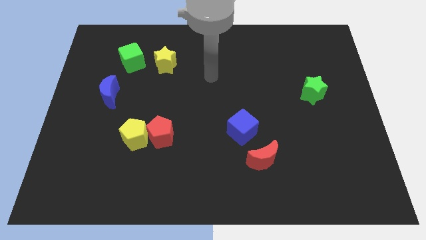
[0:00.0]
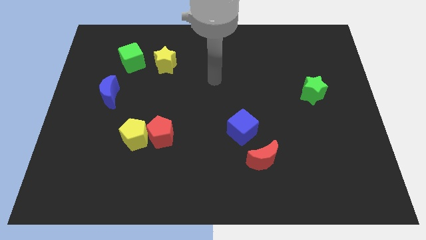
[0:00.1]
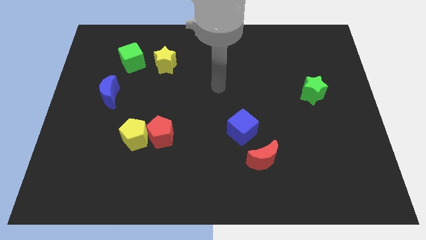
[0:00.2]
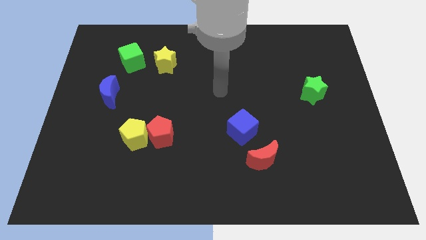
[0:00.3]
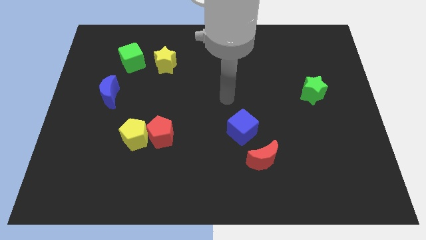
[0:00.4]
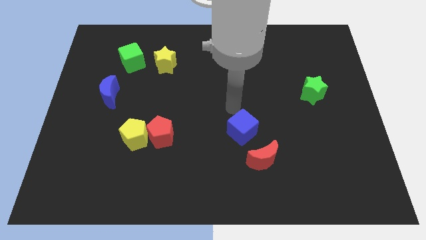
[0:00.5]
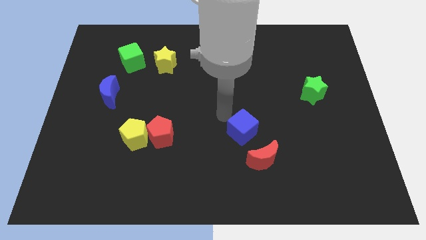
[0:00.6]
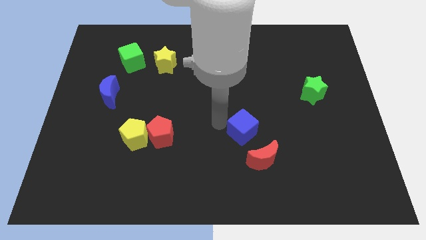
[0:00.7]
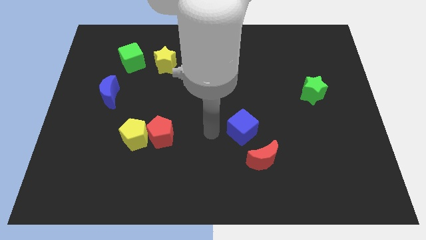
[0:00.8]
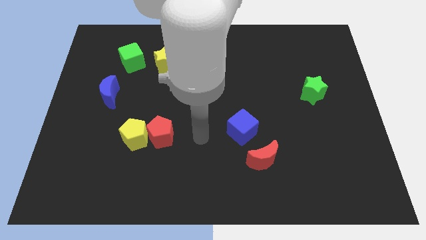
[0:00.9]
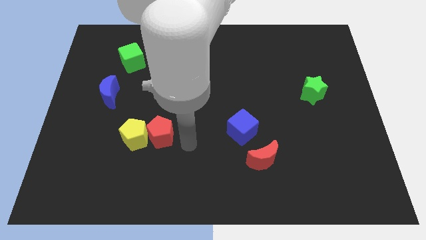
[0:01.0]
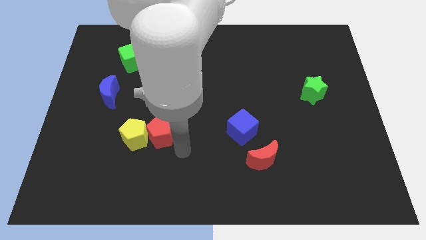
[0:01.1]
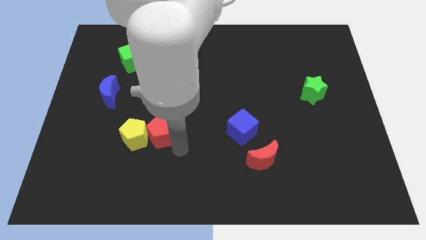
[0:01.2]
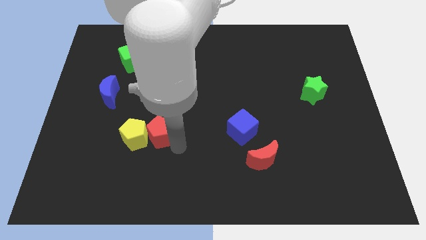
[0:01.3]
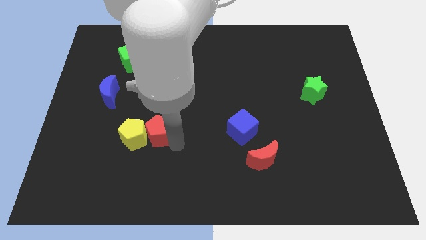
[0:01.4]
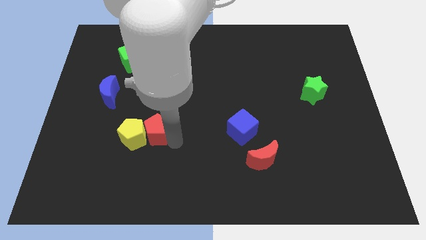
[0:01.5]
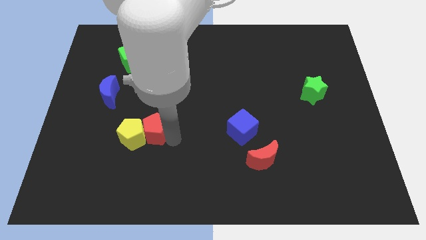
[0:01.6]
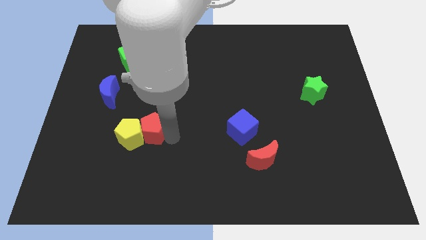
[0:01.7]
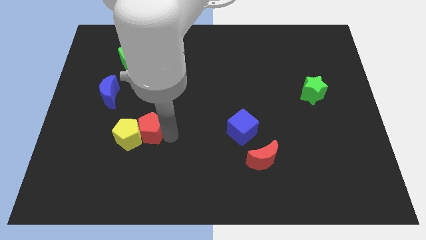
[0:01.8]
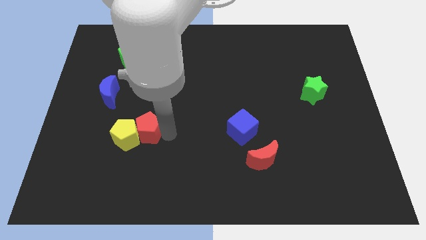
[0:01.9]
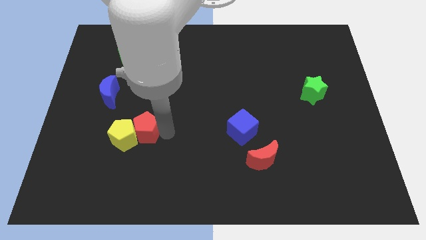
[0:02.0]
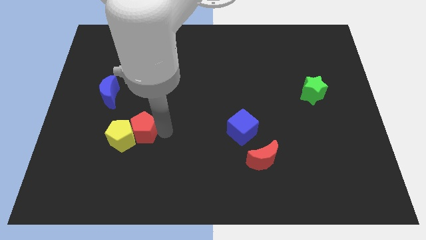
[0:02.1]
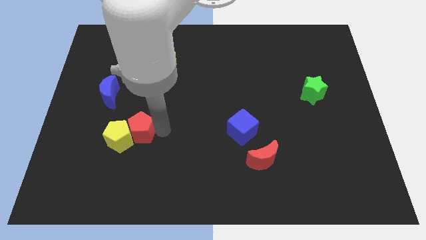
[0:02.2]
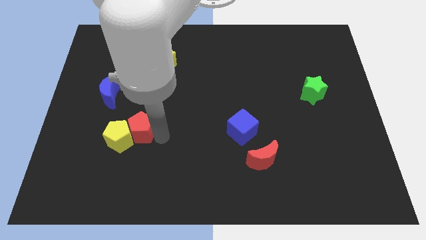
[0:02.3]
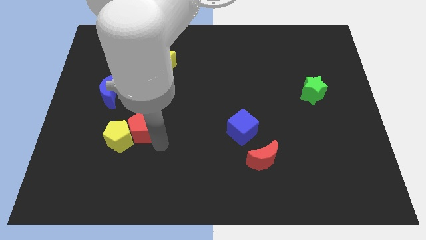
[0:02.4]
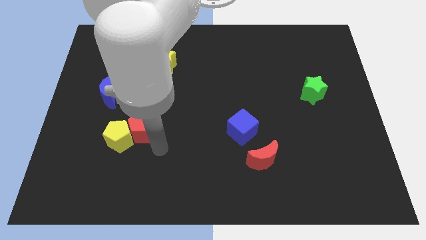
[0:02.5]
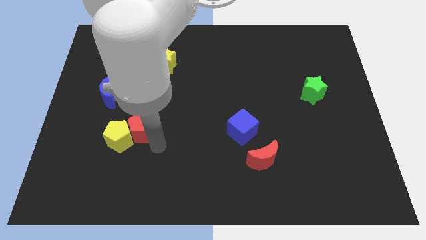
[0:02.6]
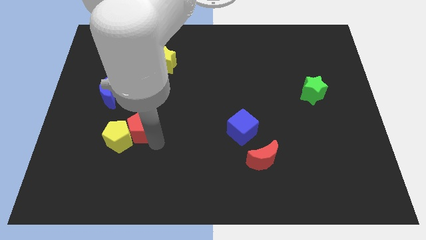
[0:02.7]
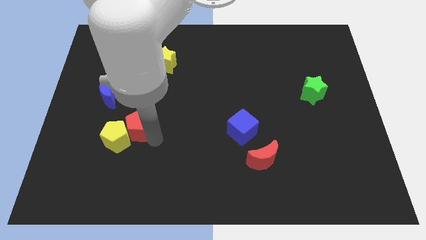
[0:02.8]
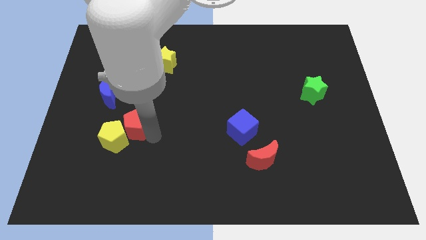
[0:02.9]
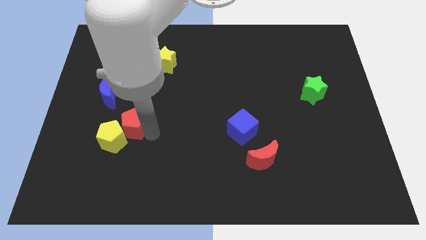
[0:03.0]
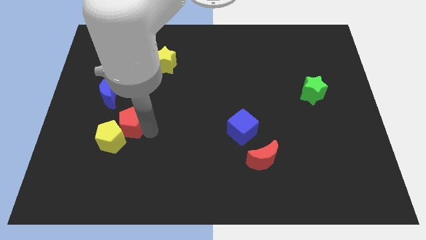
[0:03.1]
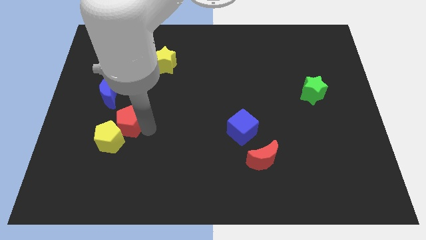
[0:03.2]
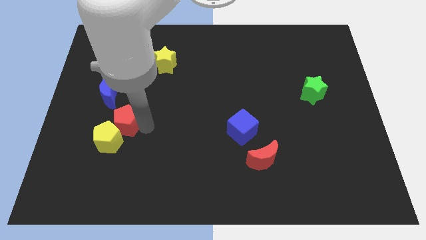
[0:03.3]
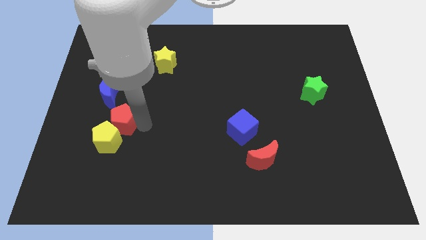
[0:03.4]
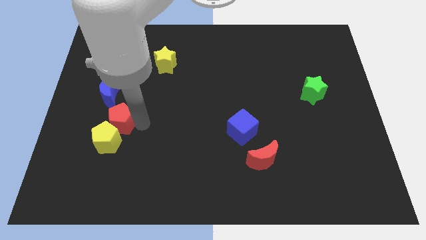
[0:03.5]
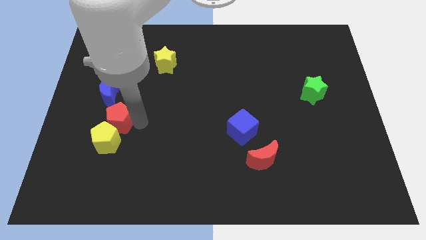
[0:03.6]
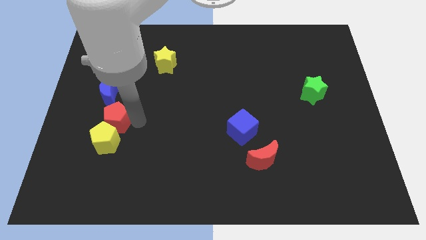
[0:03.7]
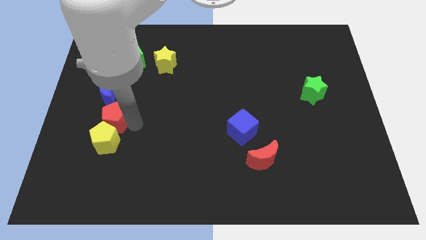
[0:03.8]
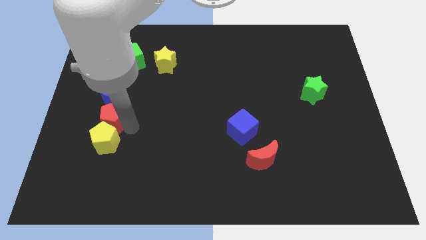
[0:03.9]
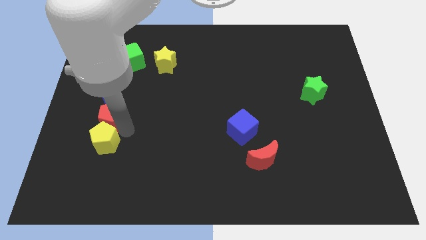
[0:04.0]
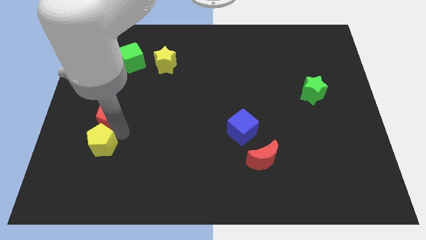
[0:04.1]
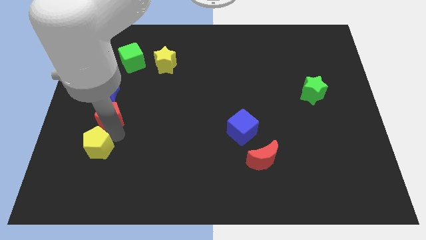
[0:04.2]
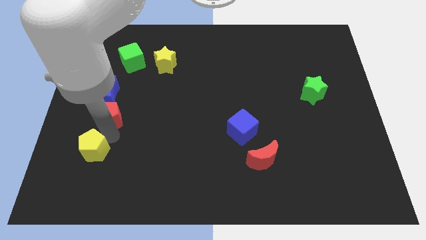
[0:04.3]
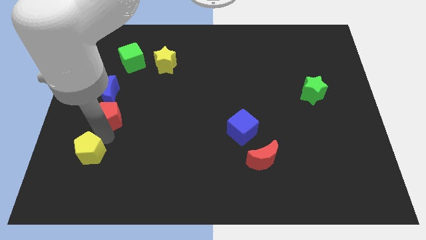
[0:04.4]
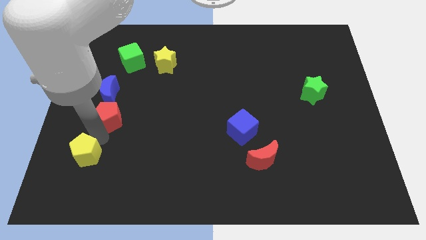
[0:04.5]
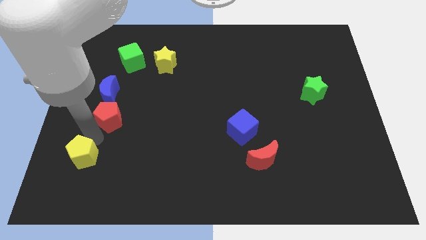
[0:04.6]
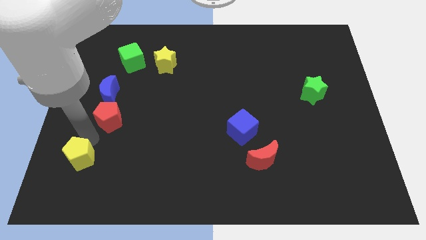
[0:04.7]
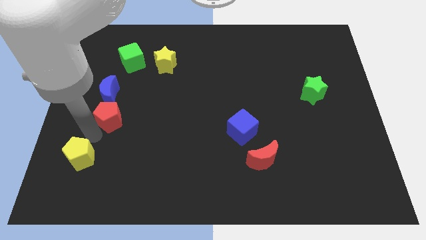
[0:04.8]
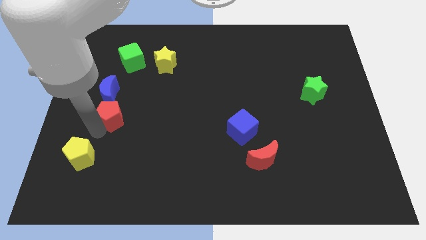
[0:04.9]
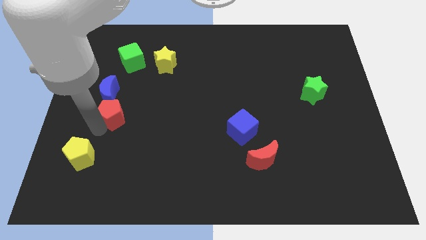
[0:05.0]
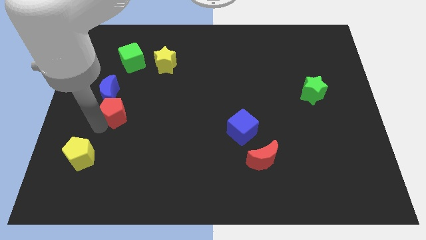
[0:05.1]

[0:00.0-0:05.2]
slide the red pentagon next to the blue moon

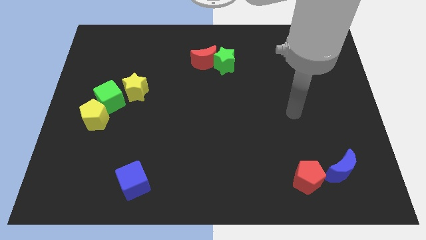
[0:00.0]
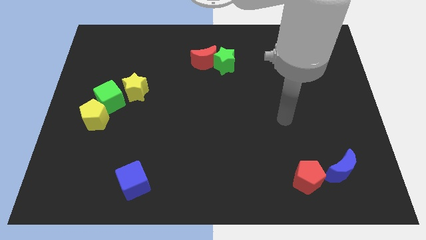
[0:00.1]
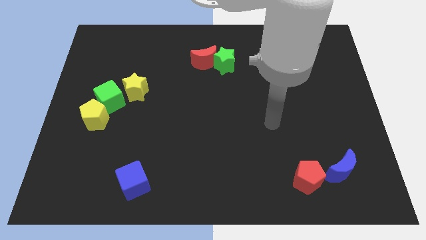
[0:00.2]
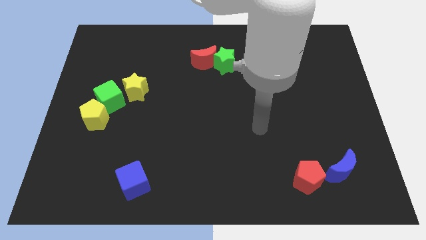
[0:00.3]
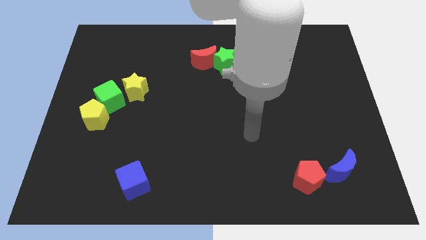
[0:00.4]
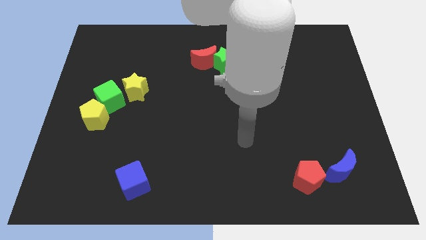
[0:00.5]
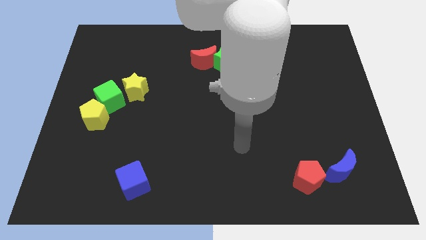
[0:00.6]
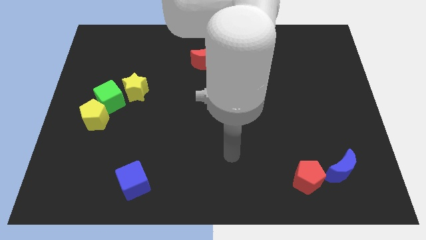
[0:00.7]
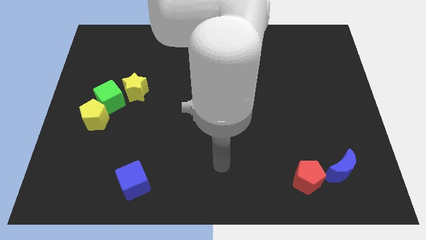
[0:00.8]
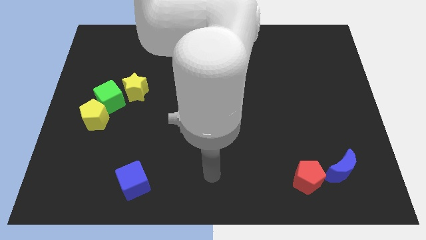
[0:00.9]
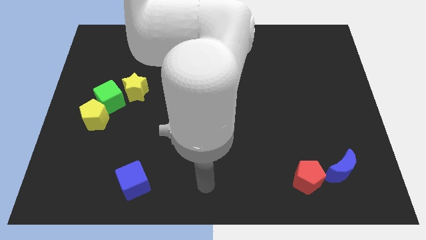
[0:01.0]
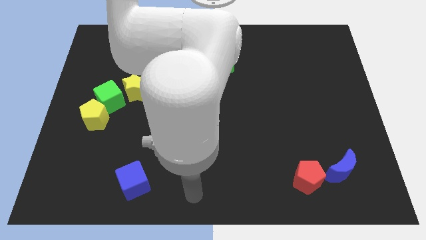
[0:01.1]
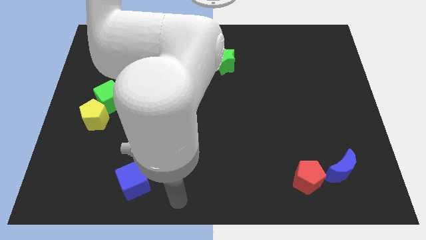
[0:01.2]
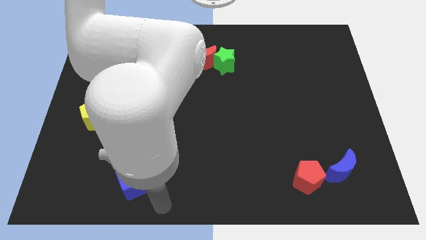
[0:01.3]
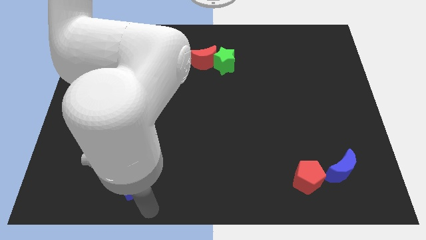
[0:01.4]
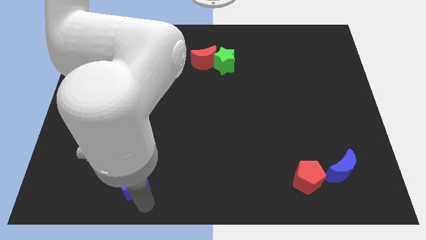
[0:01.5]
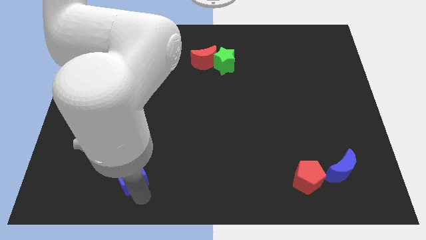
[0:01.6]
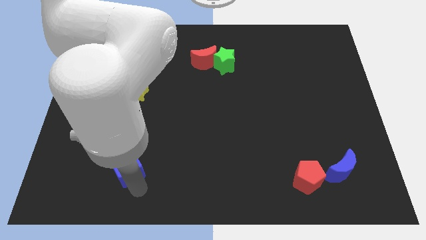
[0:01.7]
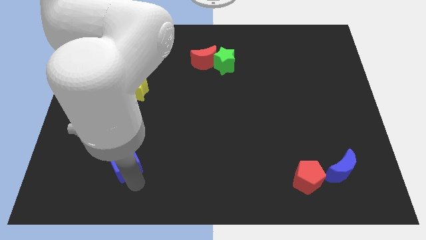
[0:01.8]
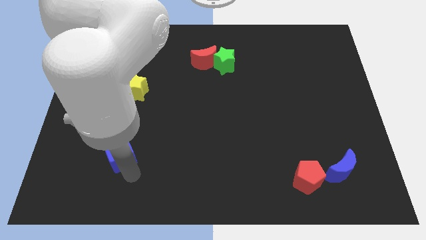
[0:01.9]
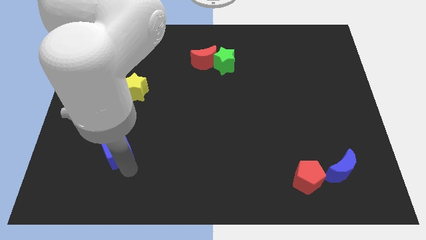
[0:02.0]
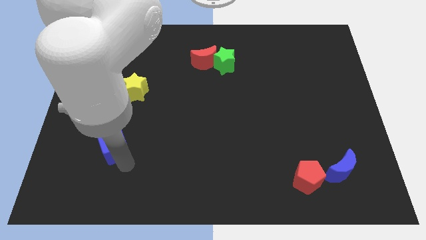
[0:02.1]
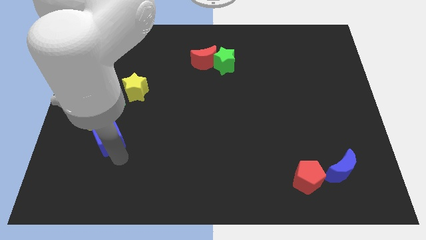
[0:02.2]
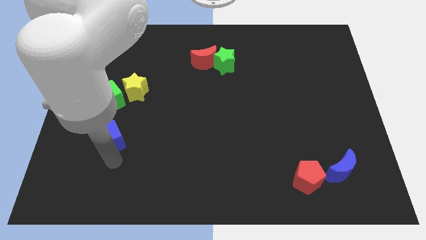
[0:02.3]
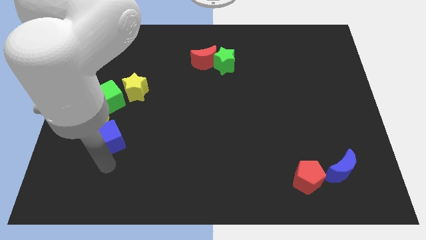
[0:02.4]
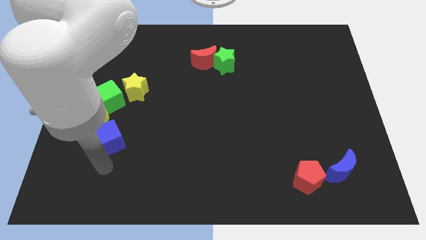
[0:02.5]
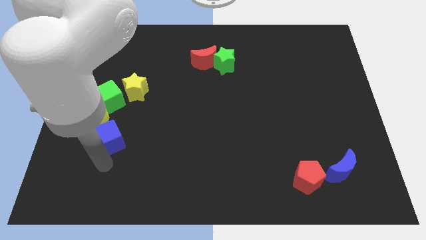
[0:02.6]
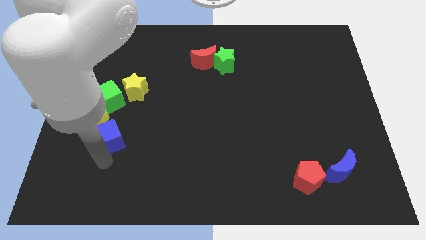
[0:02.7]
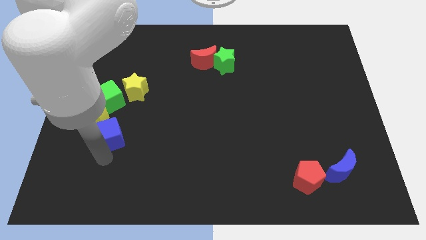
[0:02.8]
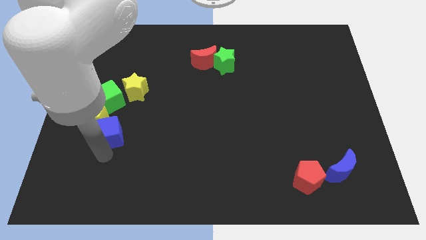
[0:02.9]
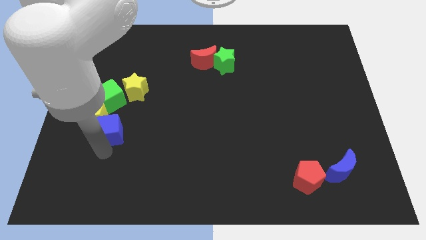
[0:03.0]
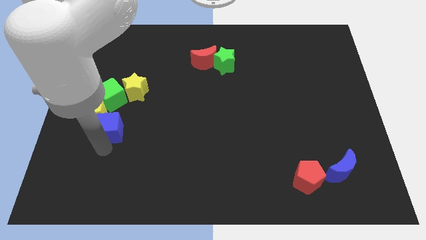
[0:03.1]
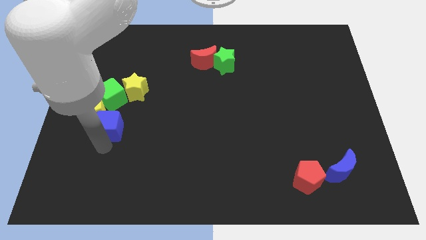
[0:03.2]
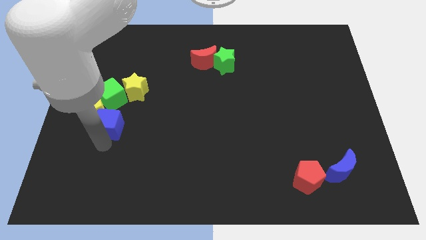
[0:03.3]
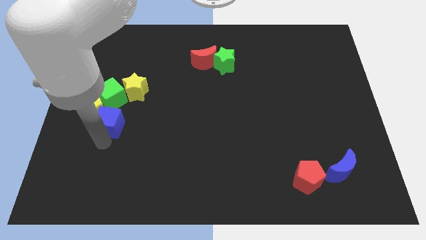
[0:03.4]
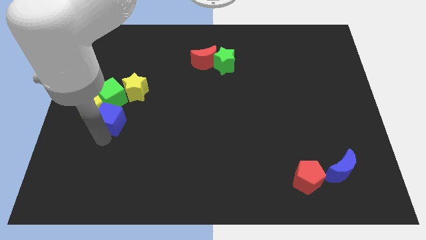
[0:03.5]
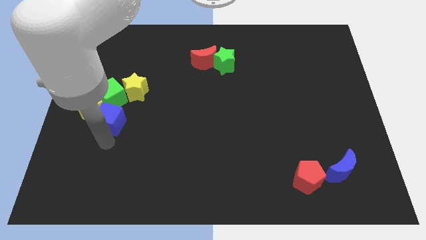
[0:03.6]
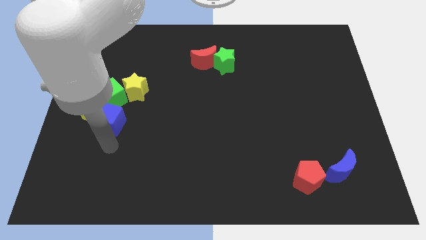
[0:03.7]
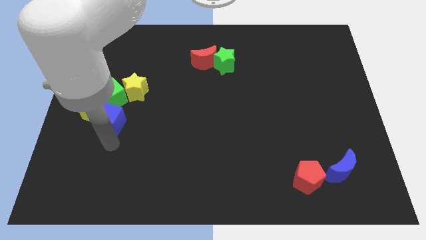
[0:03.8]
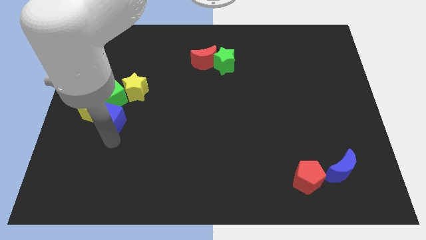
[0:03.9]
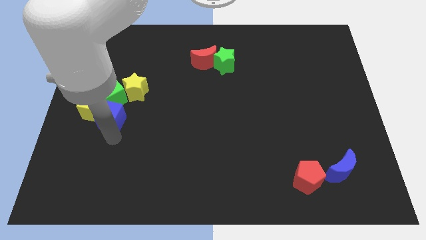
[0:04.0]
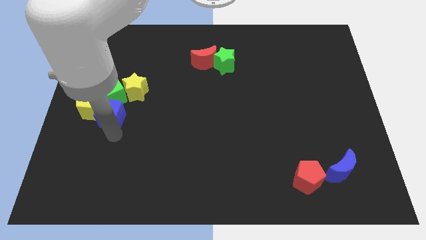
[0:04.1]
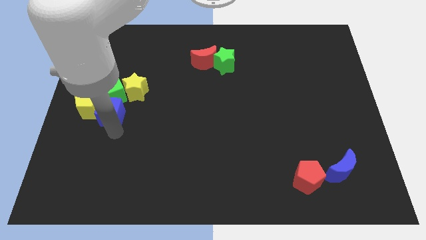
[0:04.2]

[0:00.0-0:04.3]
put the blue cube to the green cube
